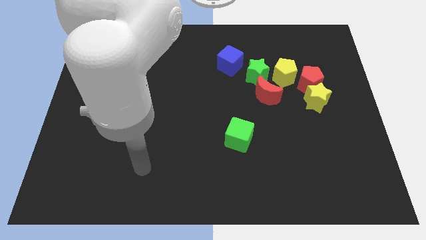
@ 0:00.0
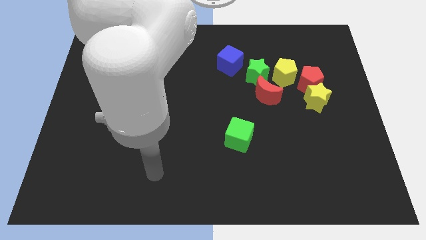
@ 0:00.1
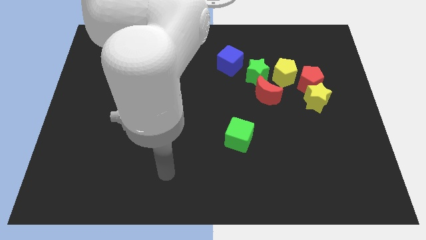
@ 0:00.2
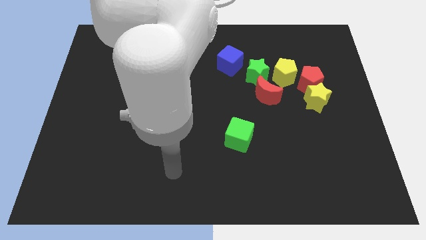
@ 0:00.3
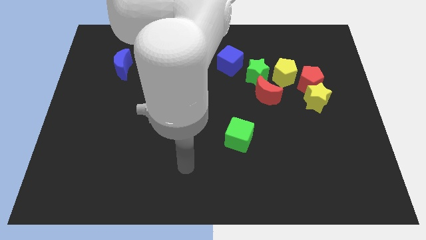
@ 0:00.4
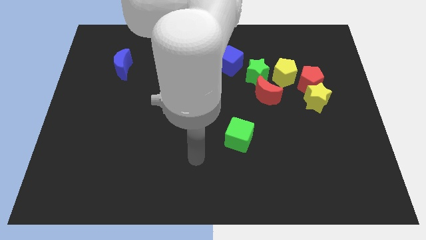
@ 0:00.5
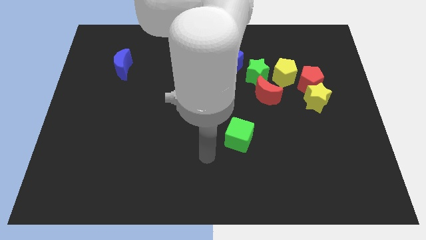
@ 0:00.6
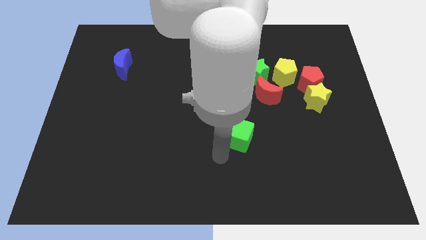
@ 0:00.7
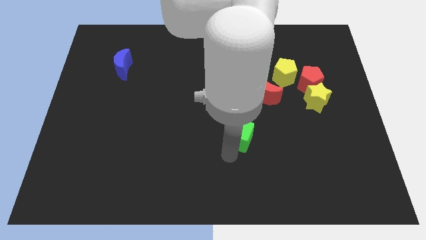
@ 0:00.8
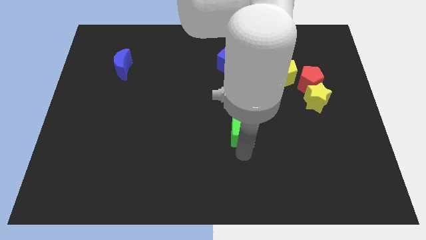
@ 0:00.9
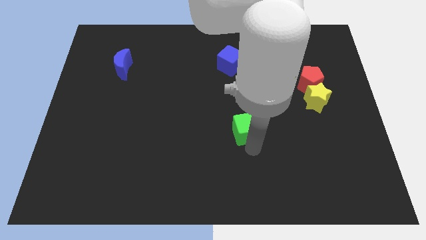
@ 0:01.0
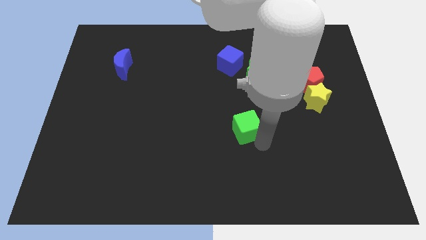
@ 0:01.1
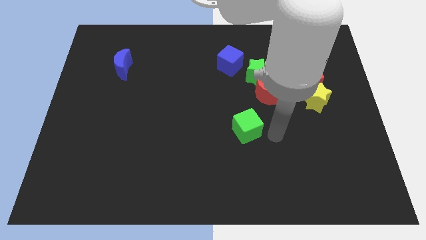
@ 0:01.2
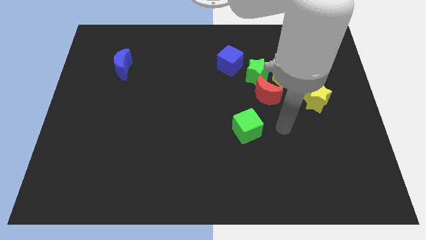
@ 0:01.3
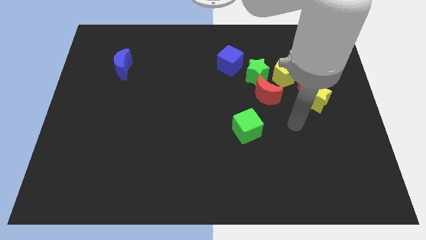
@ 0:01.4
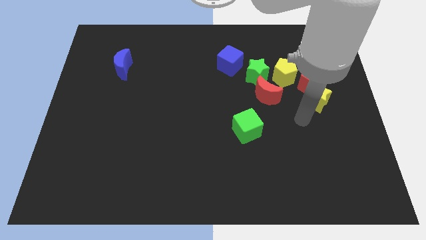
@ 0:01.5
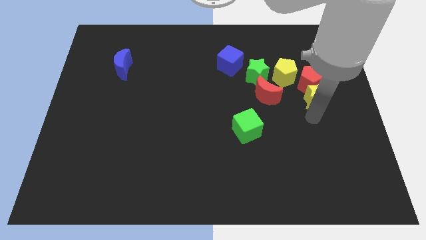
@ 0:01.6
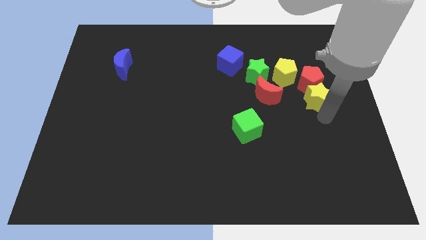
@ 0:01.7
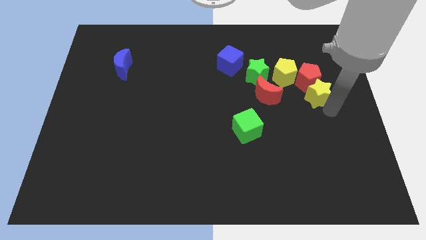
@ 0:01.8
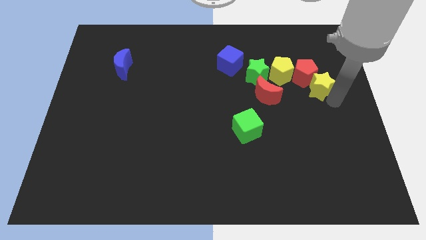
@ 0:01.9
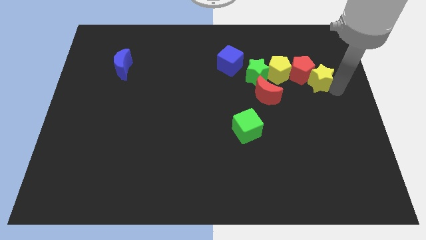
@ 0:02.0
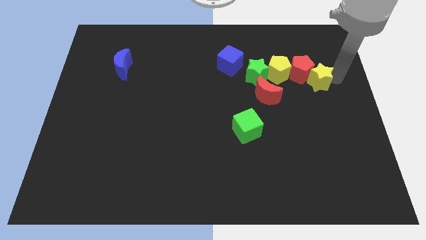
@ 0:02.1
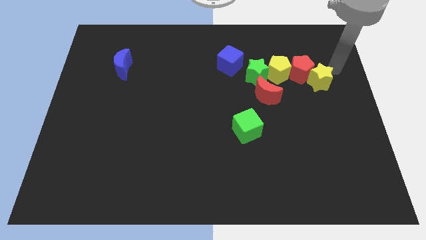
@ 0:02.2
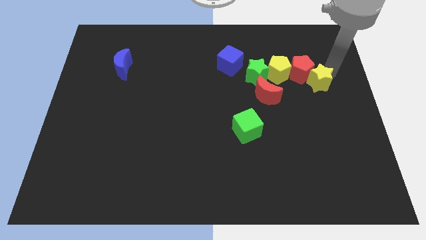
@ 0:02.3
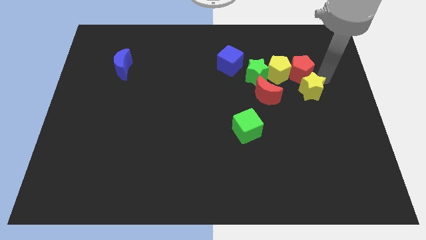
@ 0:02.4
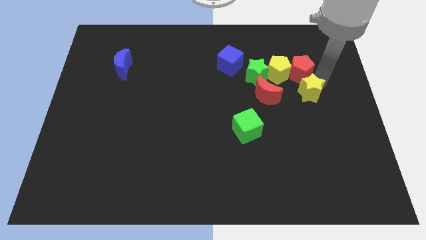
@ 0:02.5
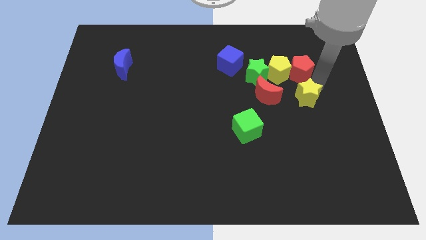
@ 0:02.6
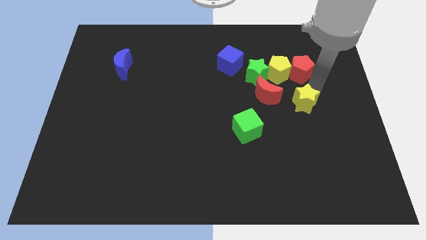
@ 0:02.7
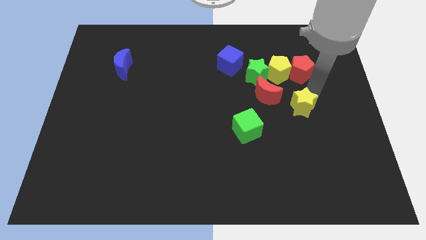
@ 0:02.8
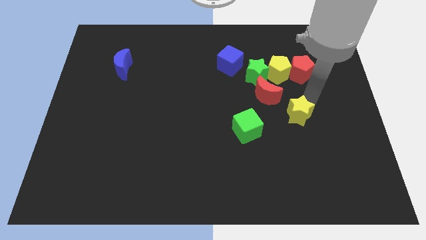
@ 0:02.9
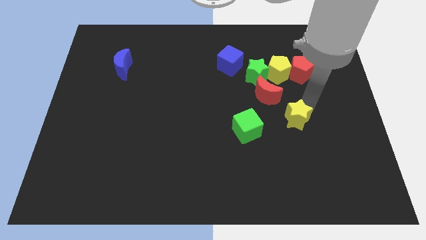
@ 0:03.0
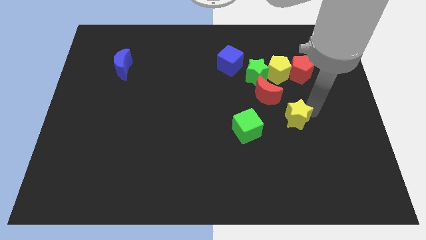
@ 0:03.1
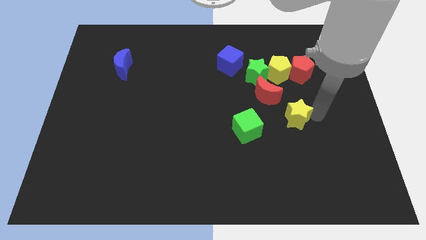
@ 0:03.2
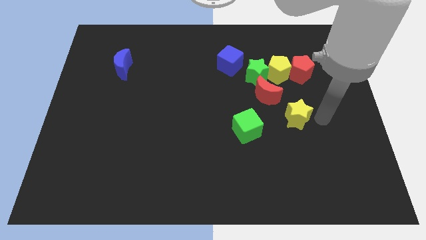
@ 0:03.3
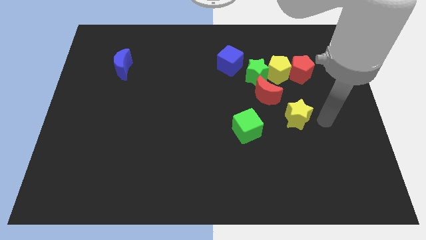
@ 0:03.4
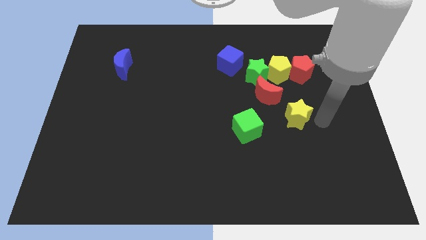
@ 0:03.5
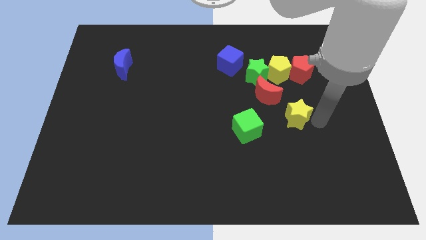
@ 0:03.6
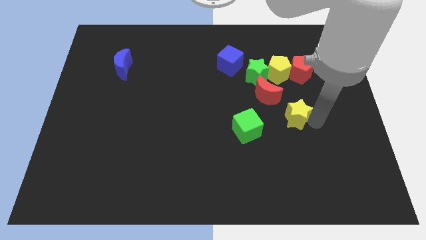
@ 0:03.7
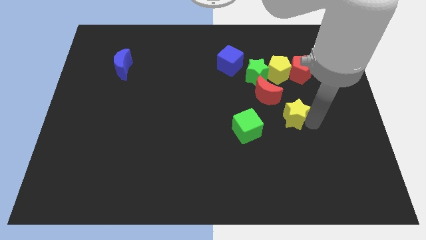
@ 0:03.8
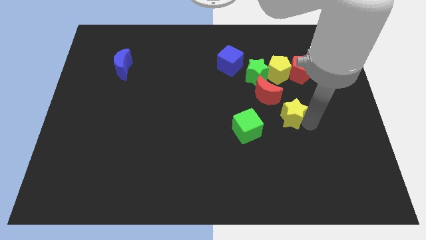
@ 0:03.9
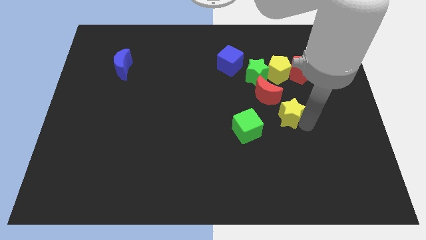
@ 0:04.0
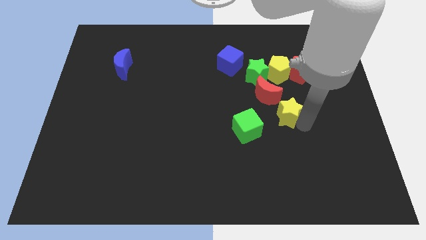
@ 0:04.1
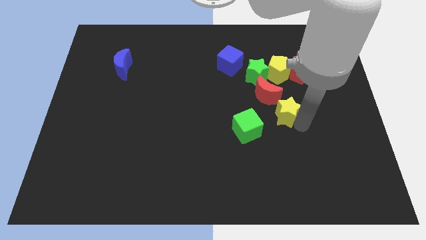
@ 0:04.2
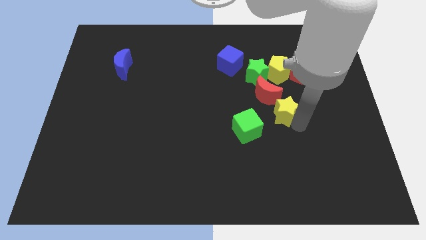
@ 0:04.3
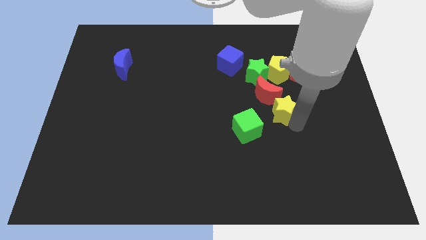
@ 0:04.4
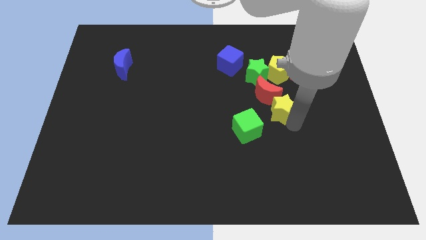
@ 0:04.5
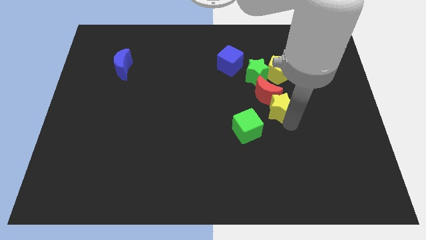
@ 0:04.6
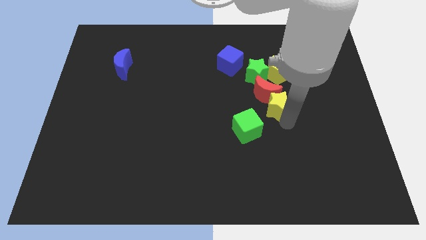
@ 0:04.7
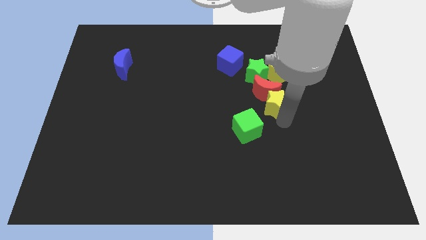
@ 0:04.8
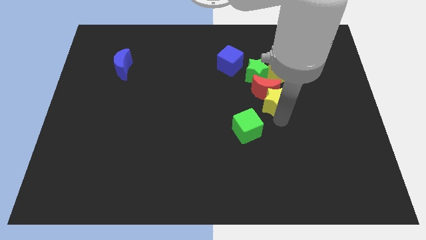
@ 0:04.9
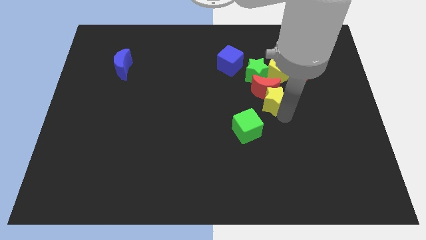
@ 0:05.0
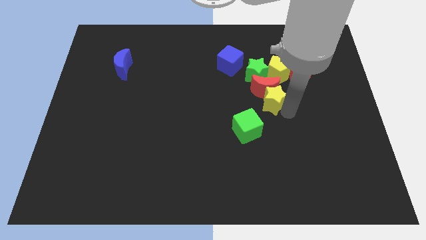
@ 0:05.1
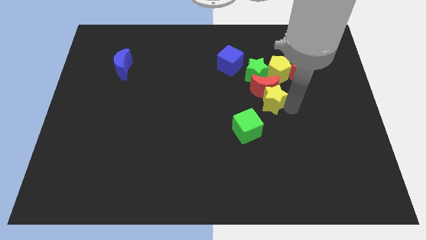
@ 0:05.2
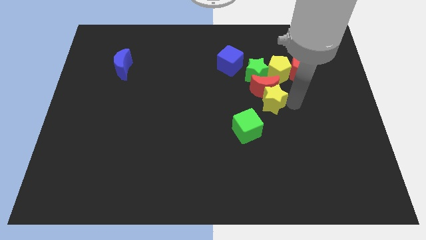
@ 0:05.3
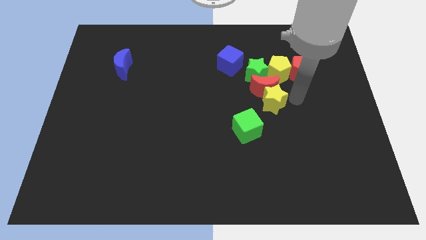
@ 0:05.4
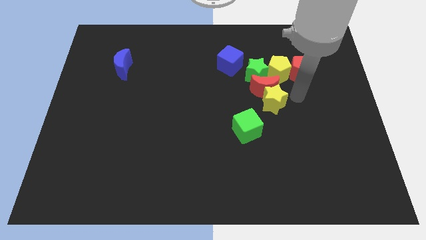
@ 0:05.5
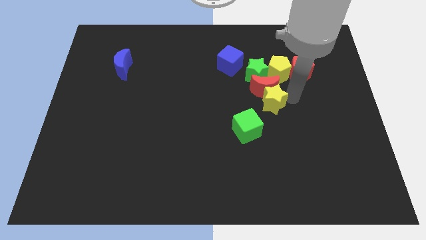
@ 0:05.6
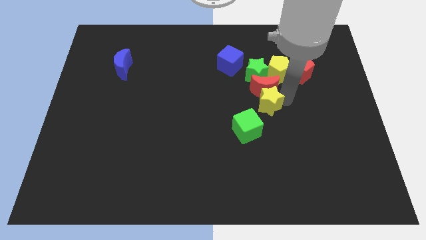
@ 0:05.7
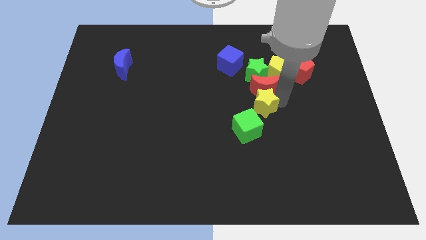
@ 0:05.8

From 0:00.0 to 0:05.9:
push the yellow star to the middle of the board
